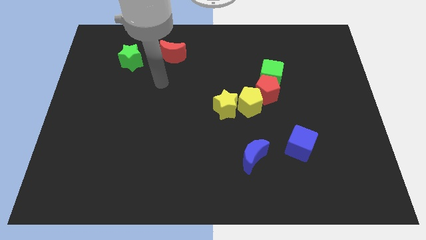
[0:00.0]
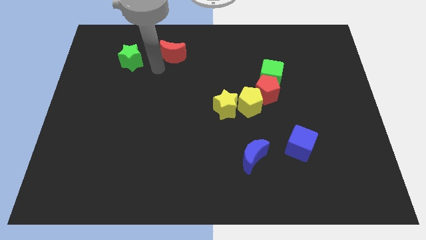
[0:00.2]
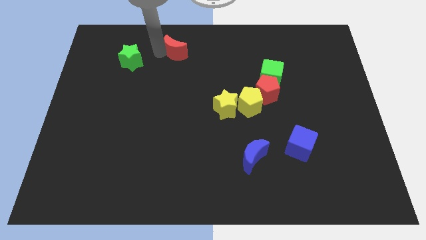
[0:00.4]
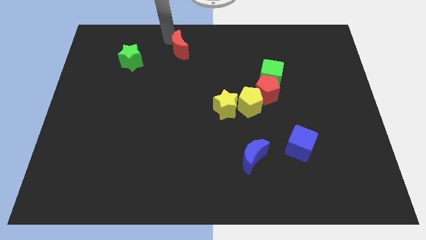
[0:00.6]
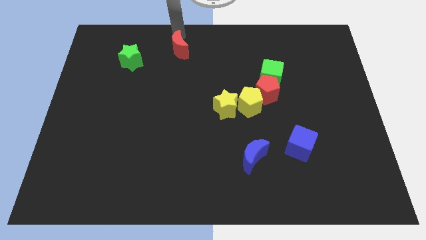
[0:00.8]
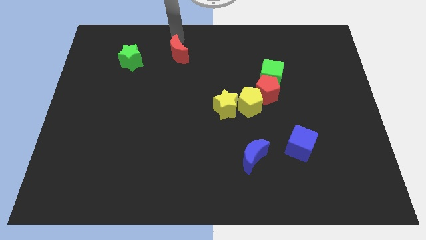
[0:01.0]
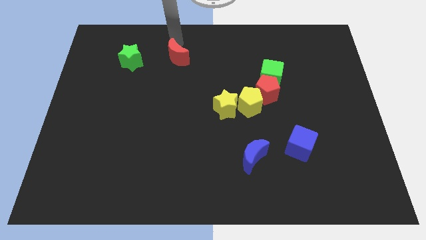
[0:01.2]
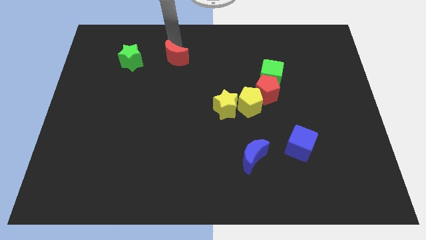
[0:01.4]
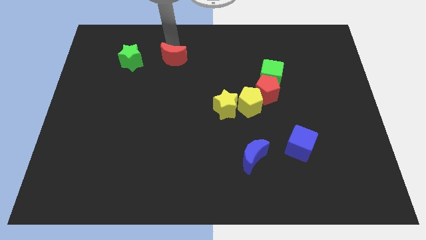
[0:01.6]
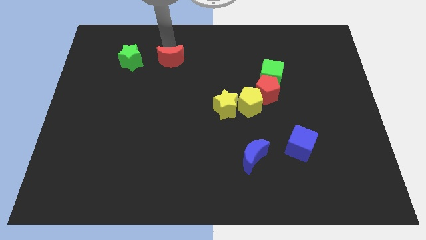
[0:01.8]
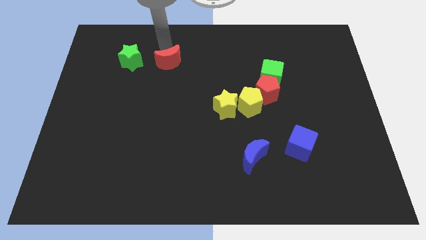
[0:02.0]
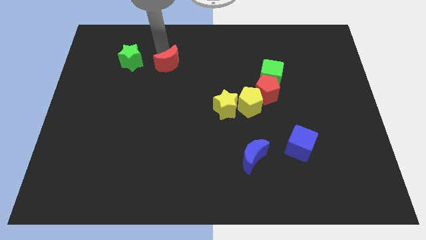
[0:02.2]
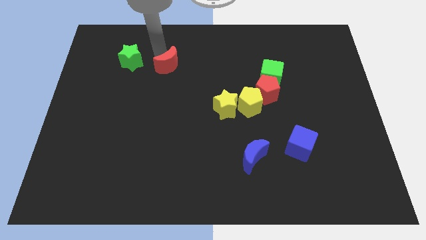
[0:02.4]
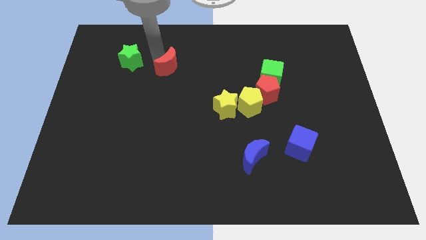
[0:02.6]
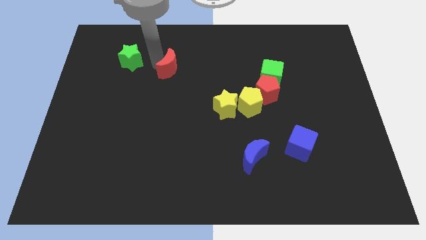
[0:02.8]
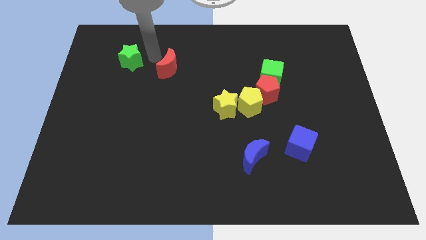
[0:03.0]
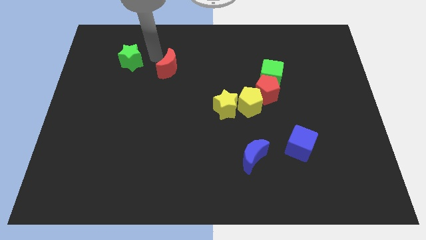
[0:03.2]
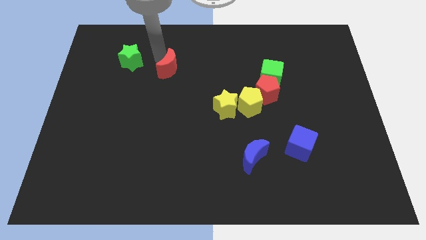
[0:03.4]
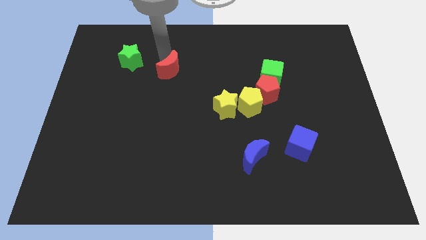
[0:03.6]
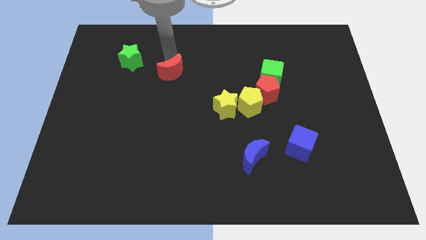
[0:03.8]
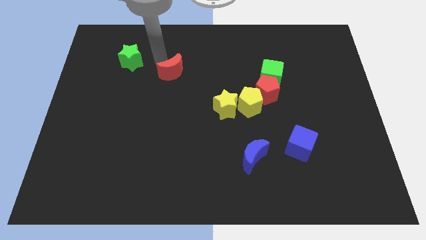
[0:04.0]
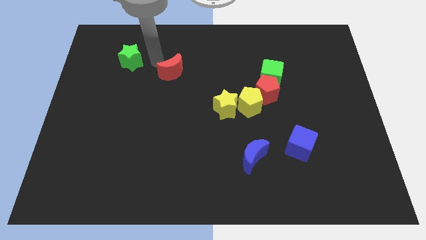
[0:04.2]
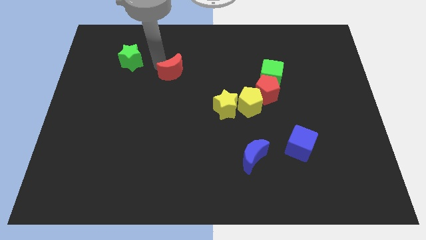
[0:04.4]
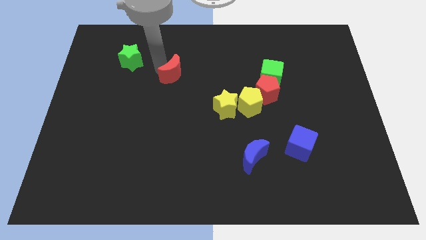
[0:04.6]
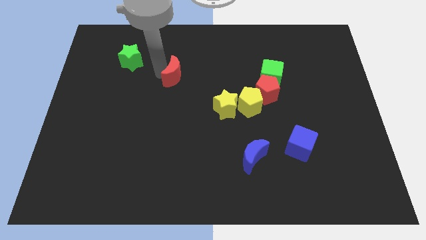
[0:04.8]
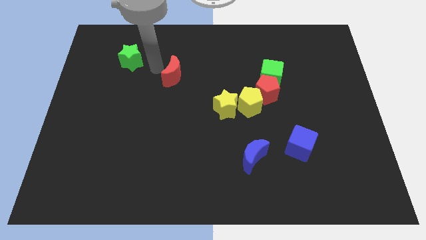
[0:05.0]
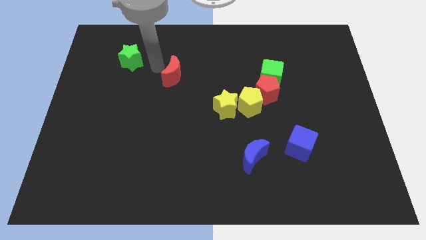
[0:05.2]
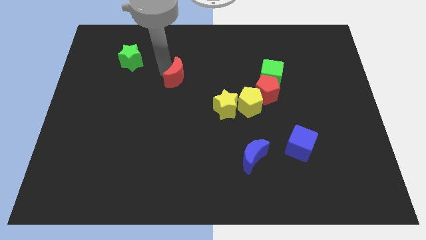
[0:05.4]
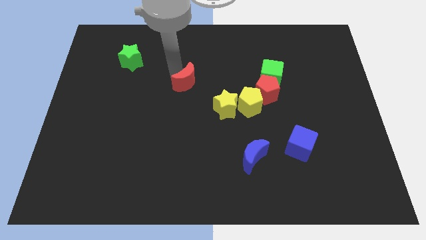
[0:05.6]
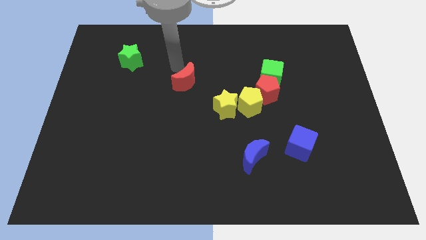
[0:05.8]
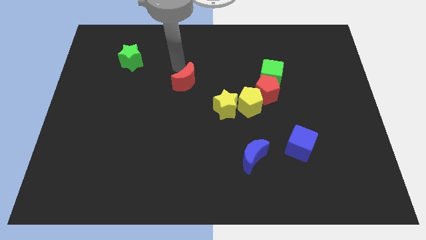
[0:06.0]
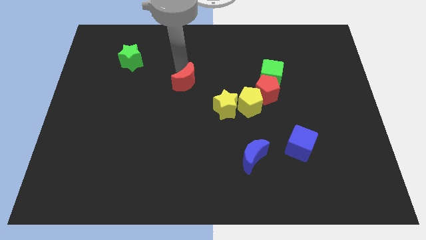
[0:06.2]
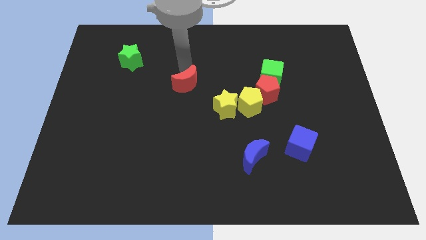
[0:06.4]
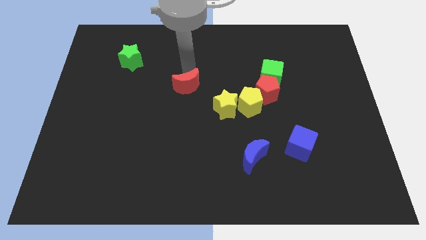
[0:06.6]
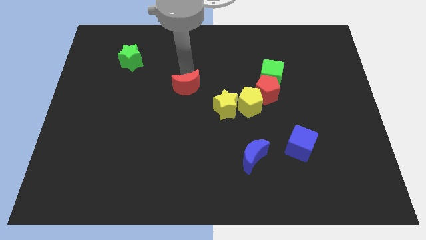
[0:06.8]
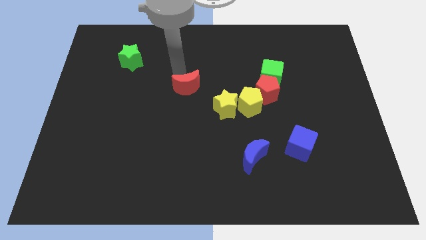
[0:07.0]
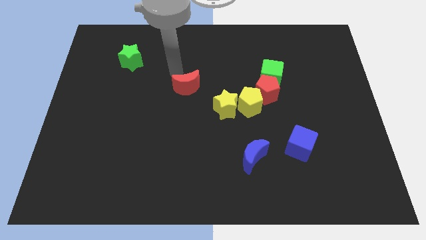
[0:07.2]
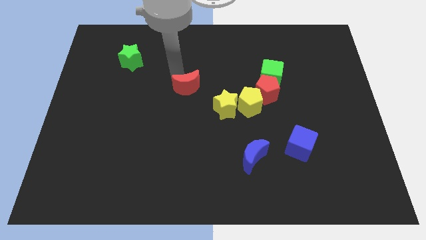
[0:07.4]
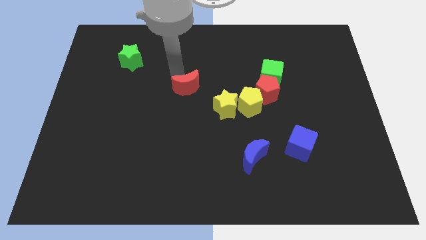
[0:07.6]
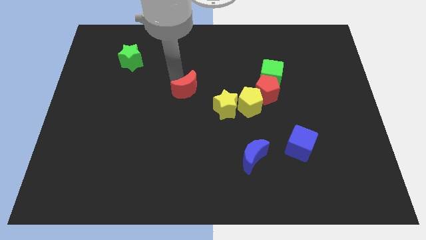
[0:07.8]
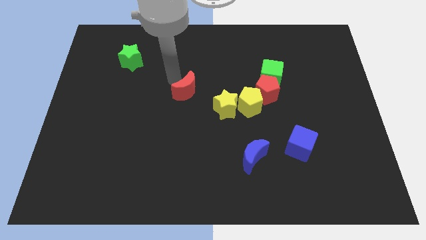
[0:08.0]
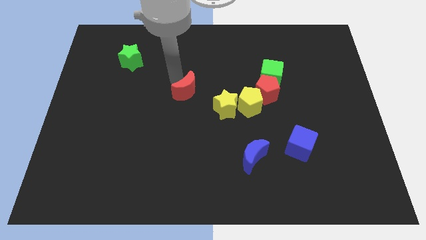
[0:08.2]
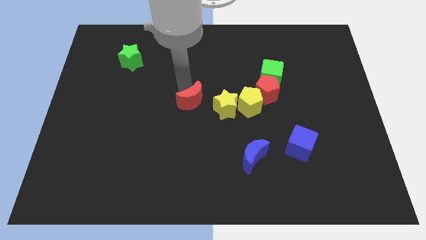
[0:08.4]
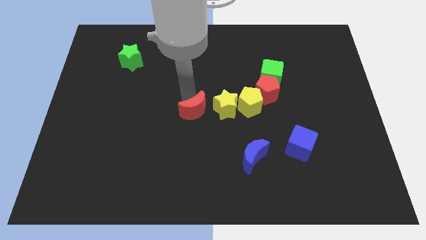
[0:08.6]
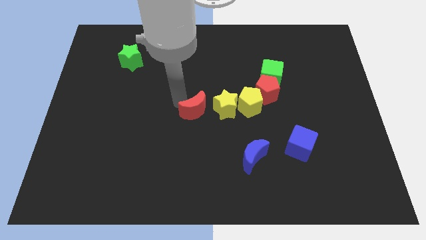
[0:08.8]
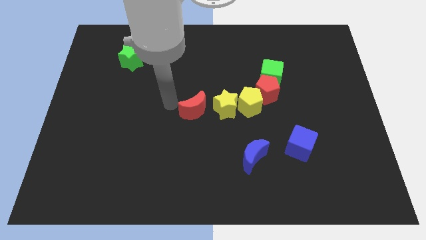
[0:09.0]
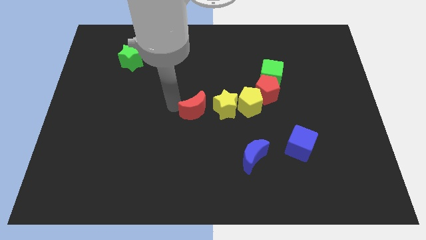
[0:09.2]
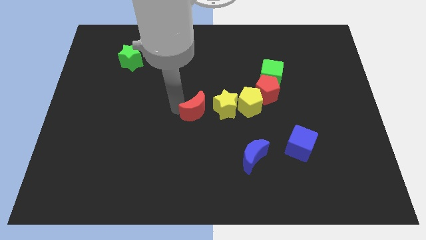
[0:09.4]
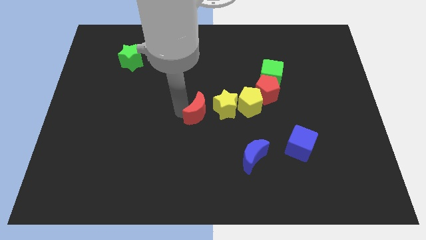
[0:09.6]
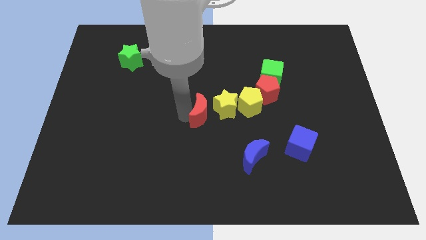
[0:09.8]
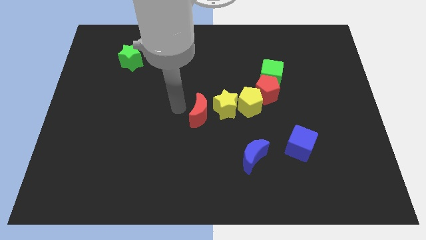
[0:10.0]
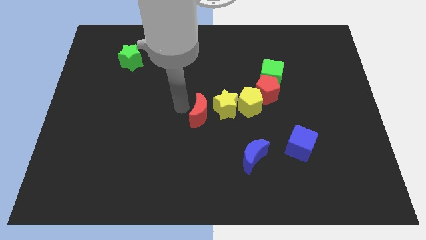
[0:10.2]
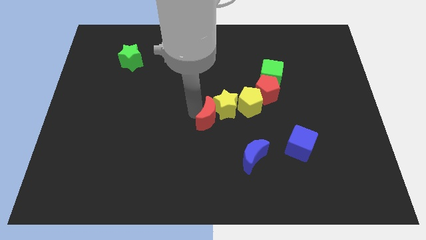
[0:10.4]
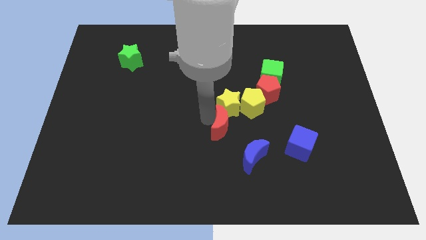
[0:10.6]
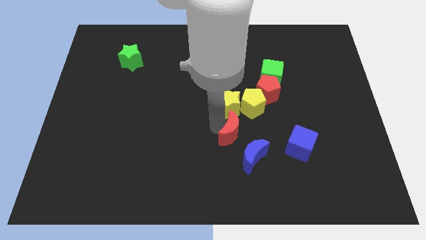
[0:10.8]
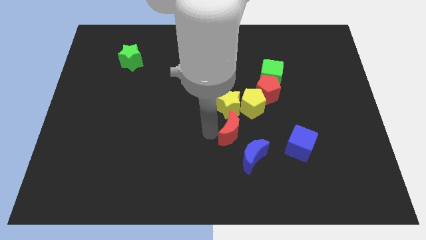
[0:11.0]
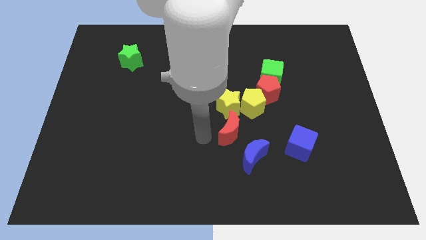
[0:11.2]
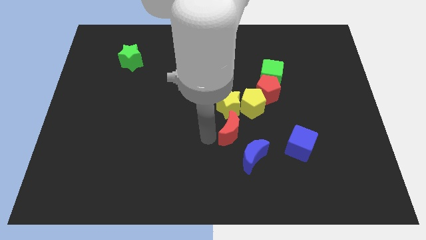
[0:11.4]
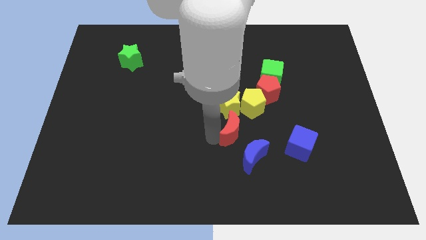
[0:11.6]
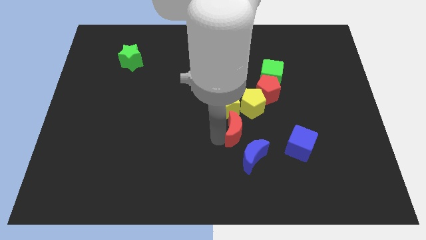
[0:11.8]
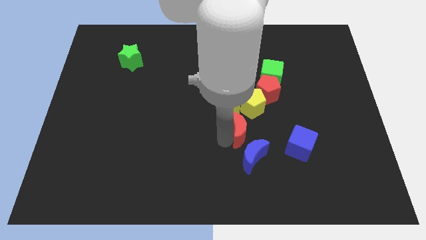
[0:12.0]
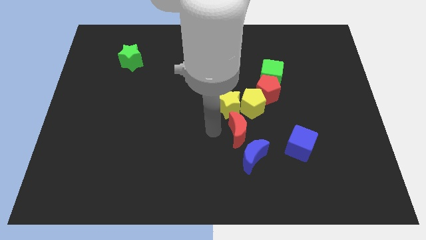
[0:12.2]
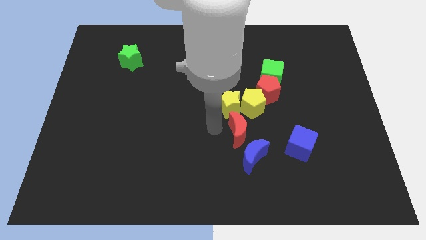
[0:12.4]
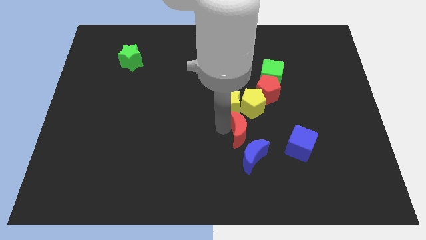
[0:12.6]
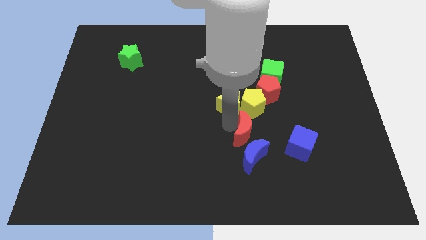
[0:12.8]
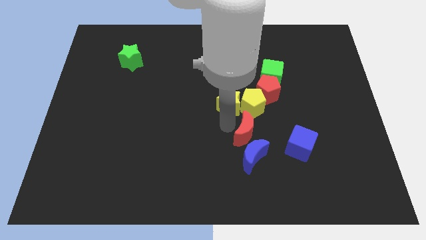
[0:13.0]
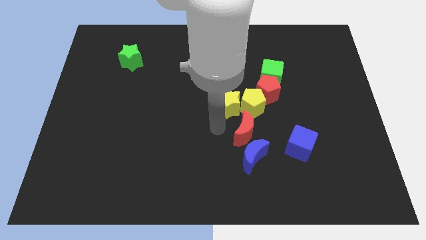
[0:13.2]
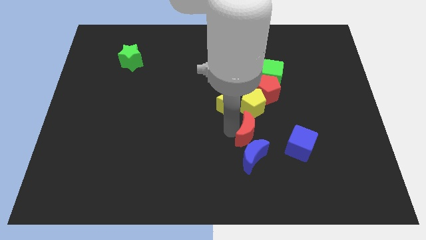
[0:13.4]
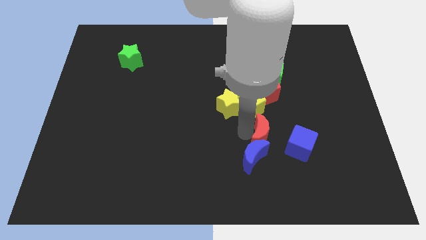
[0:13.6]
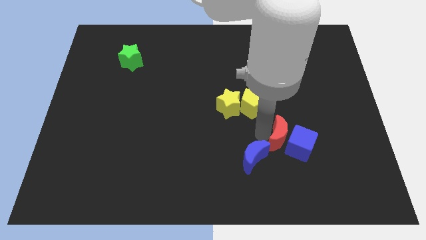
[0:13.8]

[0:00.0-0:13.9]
move the red moon towards the blue cube
